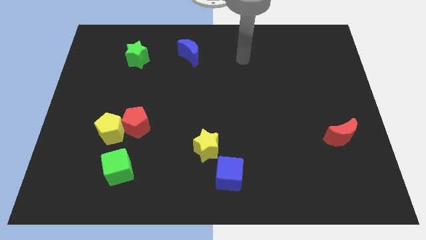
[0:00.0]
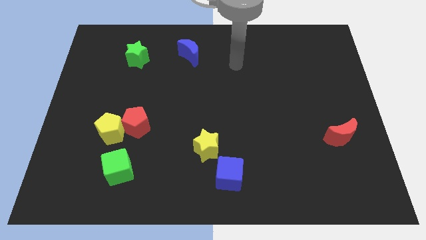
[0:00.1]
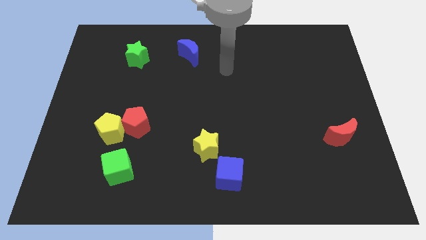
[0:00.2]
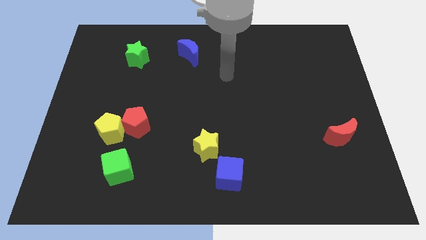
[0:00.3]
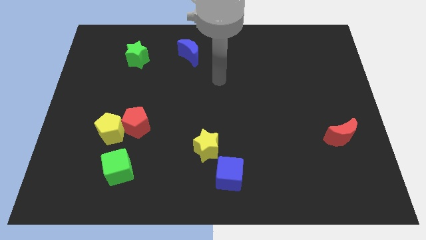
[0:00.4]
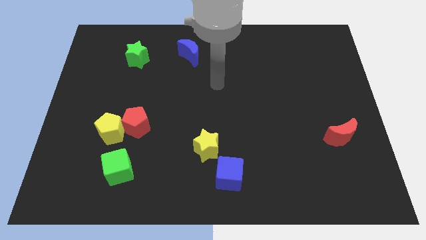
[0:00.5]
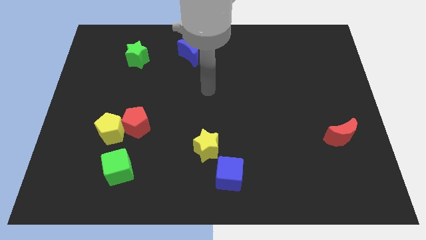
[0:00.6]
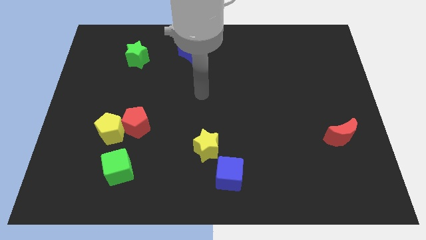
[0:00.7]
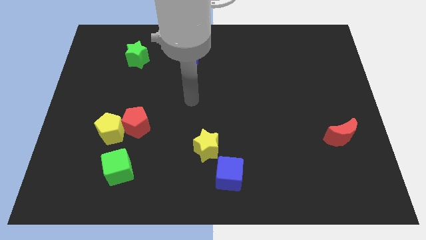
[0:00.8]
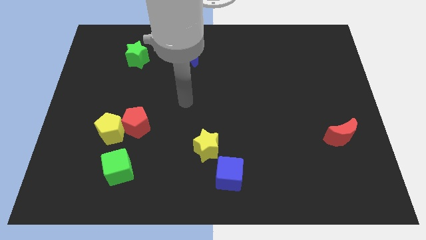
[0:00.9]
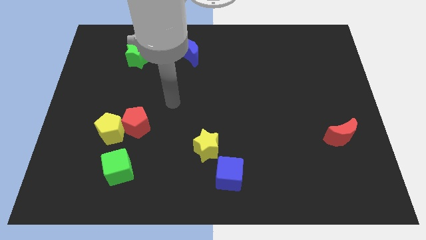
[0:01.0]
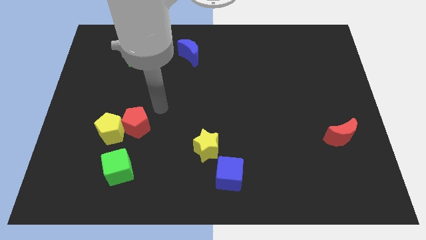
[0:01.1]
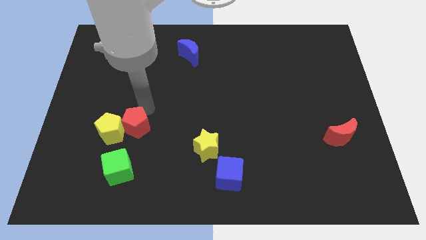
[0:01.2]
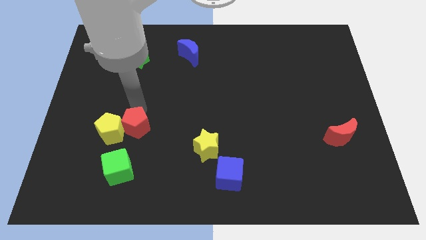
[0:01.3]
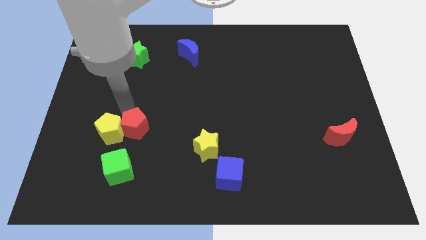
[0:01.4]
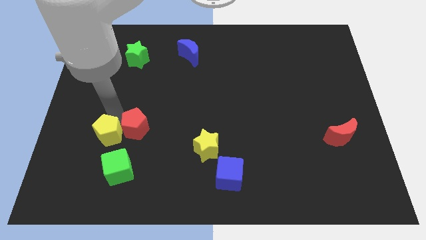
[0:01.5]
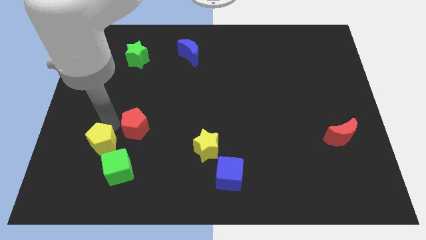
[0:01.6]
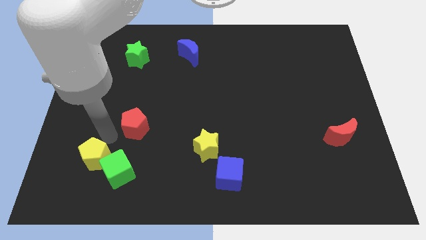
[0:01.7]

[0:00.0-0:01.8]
pull the red pentagon apart from the yellow pentagon

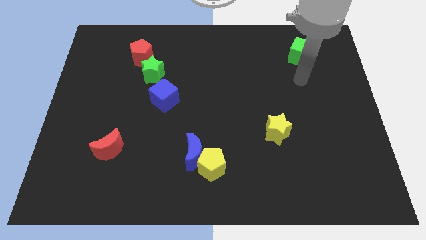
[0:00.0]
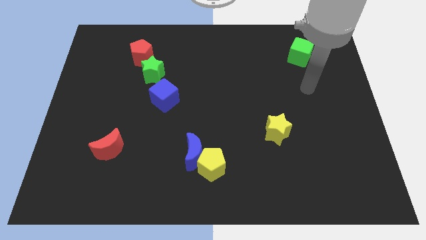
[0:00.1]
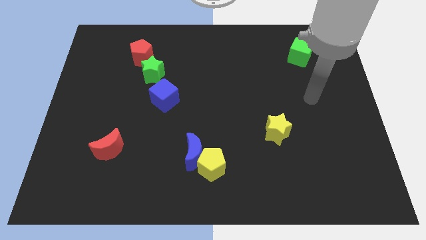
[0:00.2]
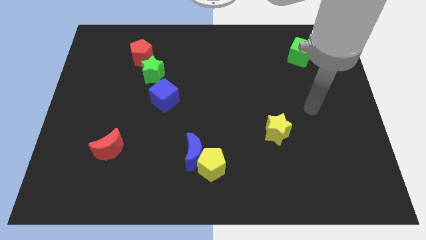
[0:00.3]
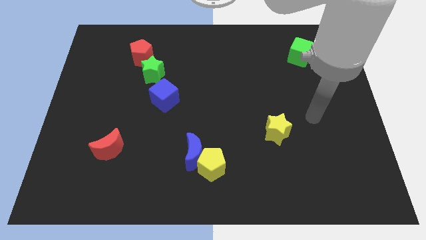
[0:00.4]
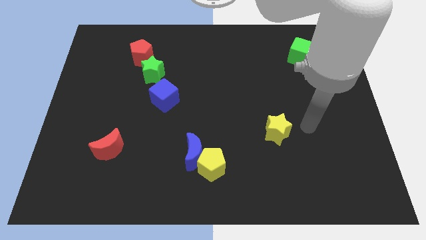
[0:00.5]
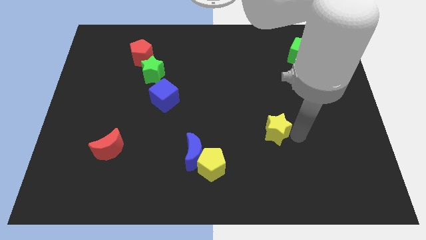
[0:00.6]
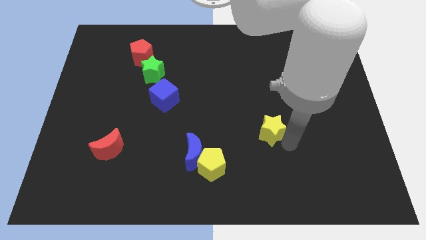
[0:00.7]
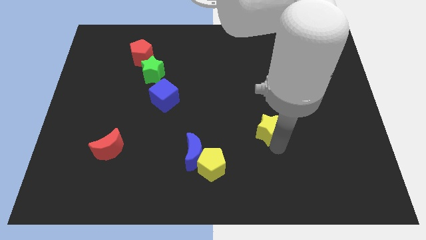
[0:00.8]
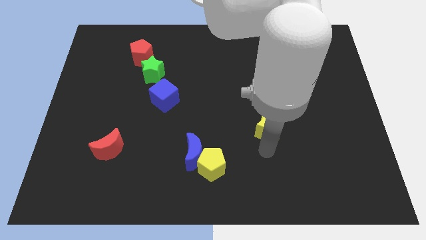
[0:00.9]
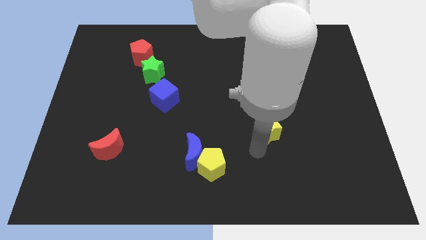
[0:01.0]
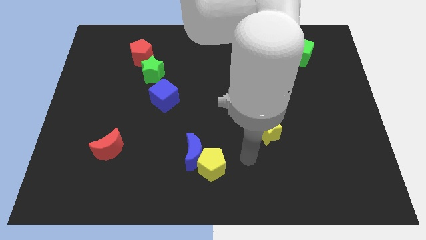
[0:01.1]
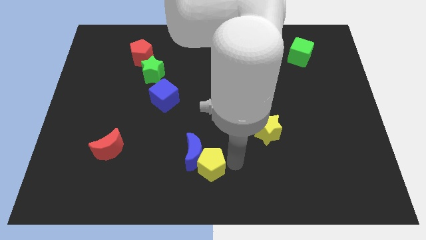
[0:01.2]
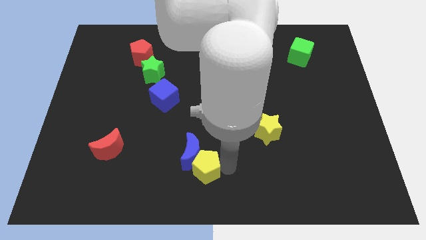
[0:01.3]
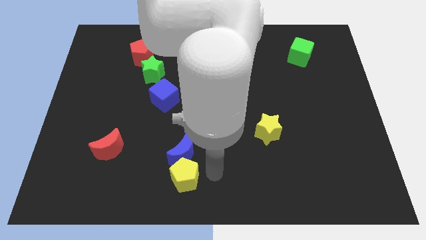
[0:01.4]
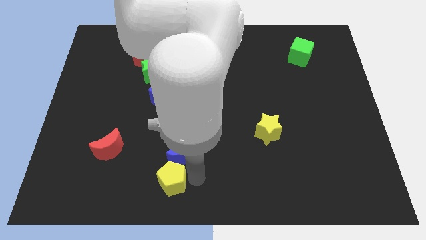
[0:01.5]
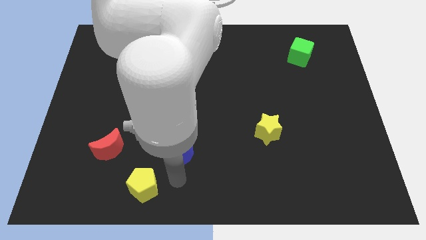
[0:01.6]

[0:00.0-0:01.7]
separate the blue moon from the yellow pentagon

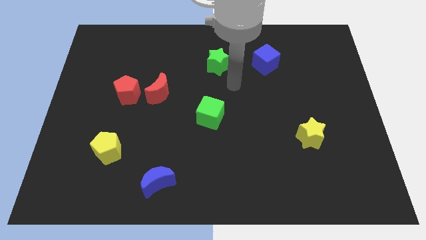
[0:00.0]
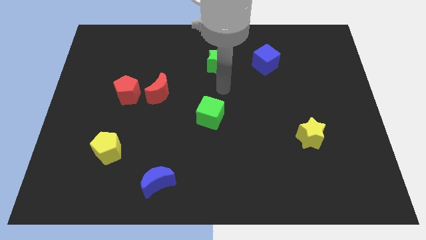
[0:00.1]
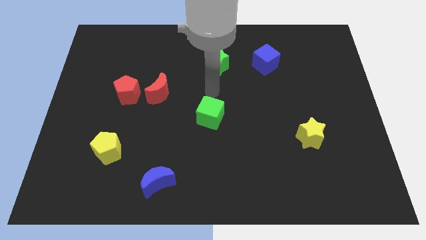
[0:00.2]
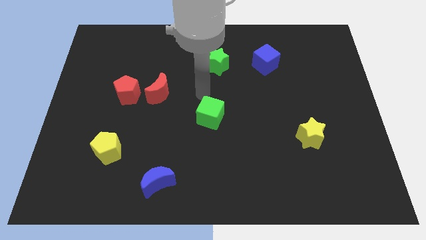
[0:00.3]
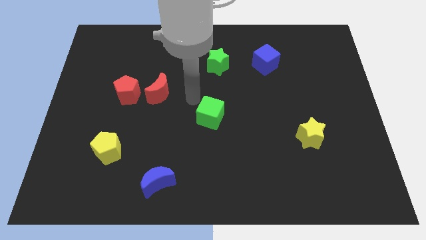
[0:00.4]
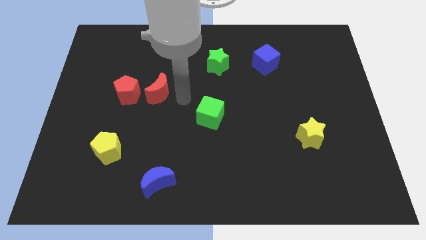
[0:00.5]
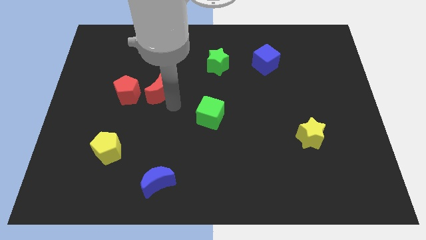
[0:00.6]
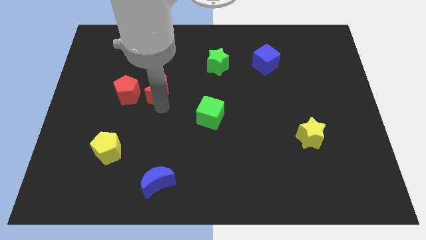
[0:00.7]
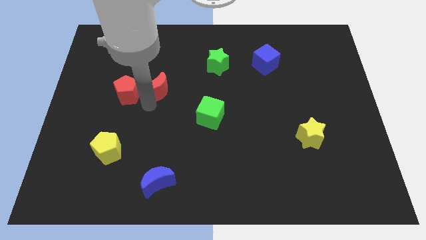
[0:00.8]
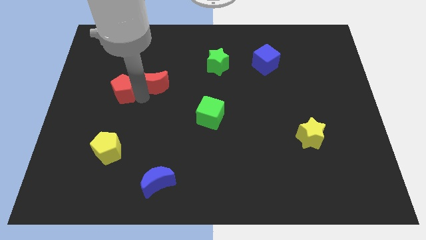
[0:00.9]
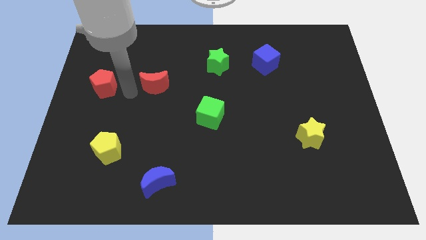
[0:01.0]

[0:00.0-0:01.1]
pull the red moon apart from the red pentagon

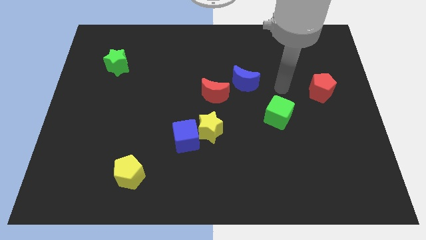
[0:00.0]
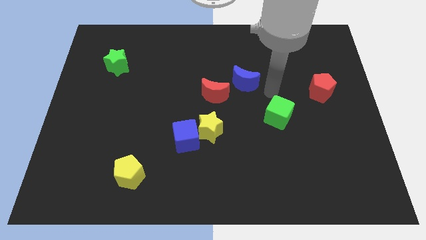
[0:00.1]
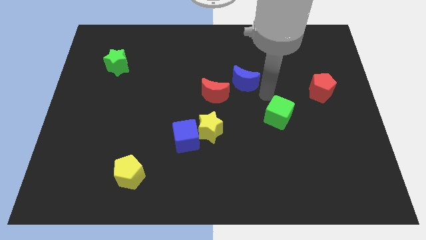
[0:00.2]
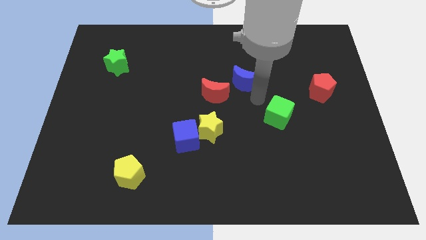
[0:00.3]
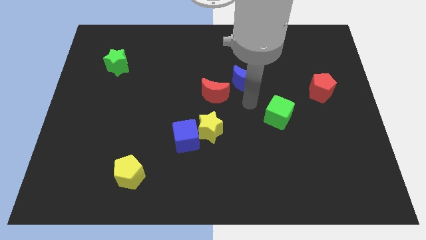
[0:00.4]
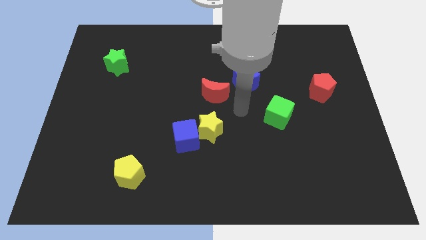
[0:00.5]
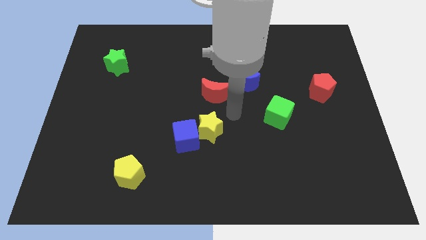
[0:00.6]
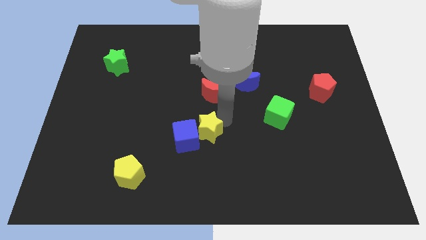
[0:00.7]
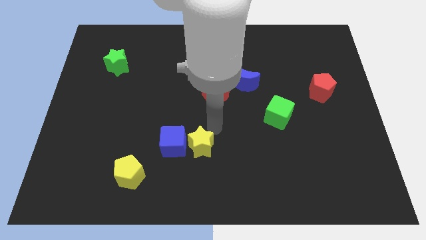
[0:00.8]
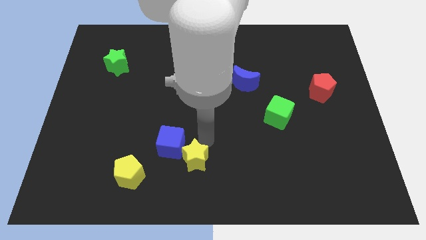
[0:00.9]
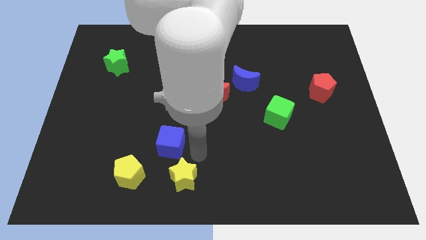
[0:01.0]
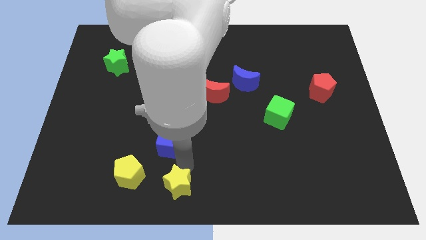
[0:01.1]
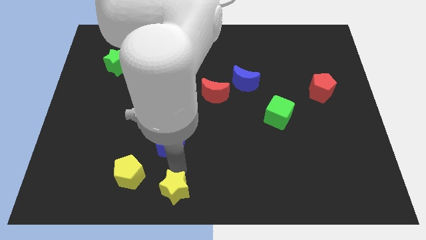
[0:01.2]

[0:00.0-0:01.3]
separate the blue cube from the yellow star

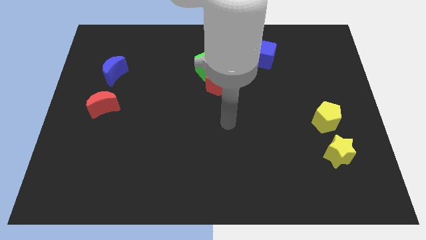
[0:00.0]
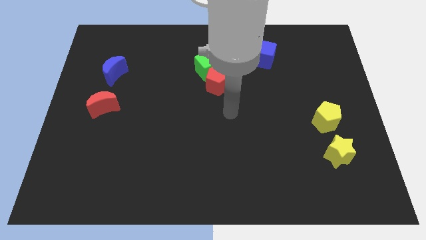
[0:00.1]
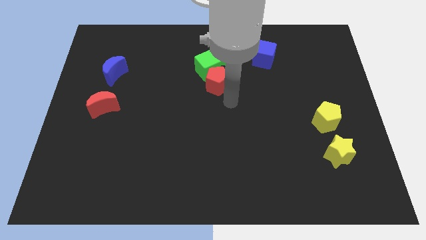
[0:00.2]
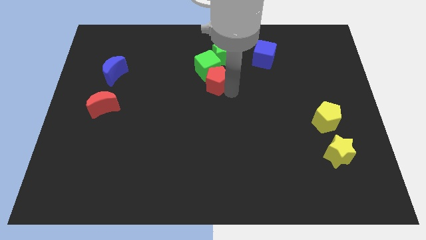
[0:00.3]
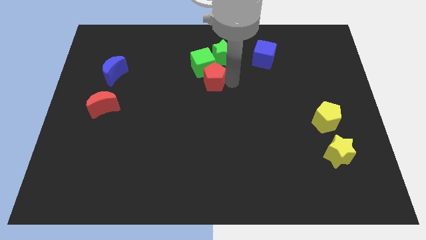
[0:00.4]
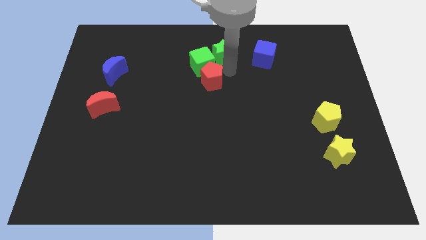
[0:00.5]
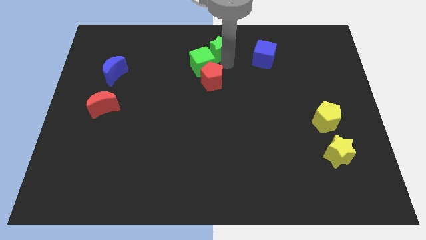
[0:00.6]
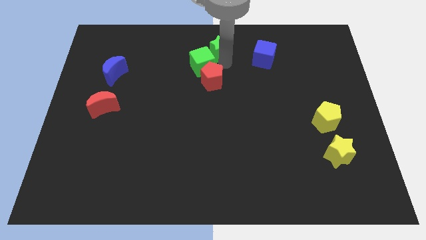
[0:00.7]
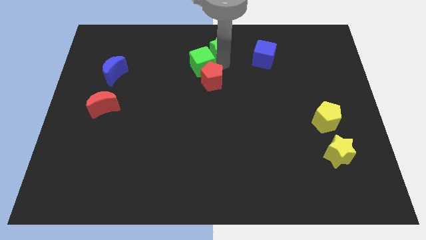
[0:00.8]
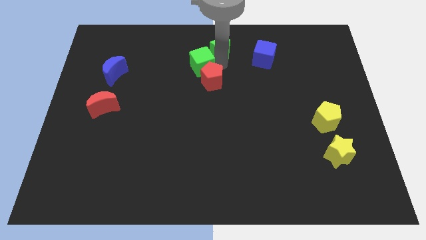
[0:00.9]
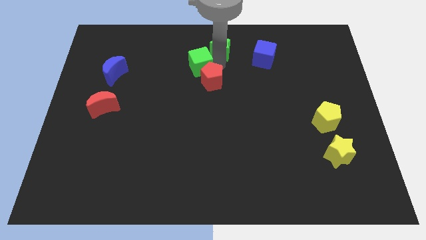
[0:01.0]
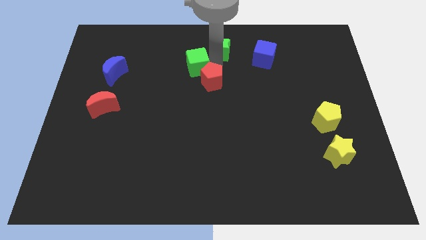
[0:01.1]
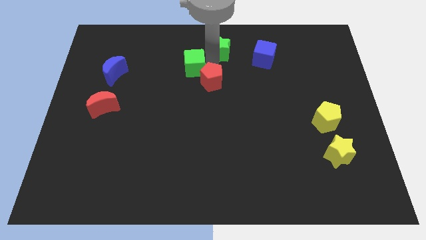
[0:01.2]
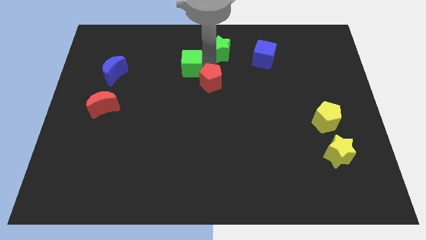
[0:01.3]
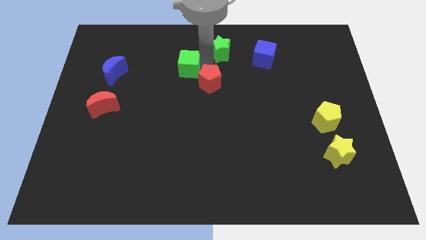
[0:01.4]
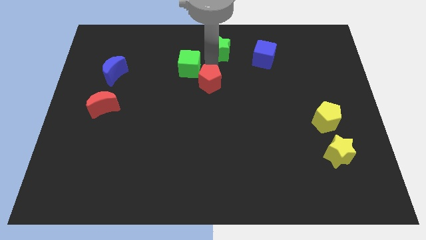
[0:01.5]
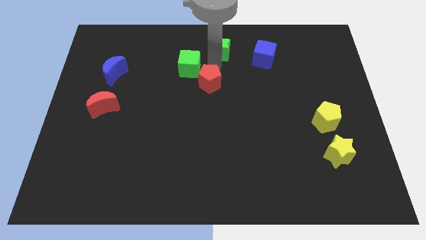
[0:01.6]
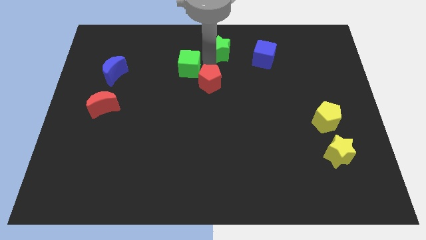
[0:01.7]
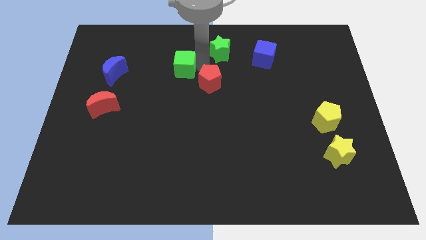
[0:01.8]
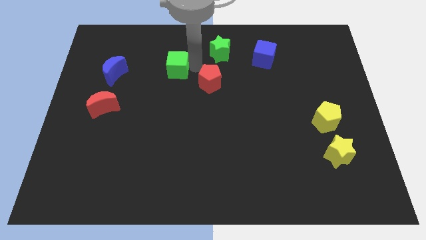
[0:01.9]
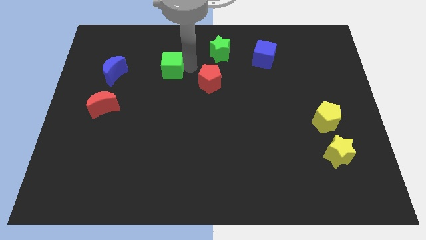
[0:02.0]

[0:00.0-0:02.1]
move the green cube away from the green star and red pentagon

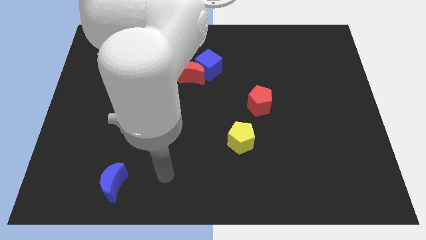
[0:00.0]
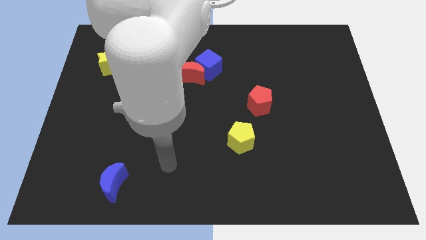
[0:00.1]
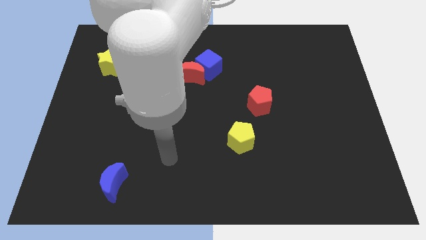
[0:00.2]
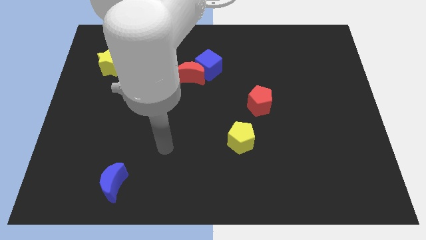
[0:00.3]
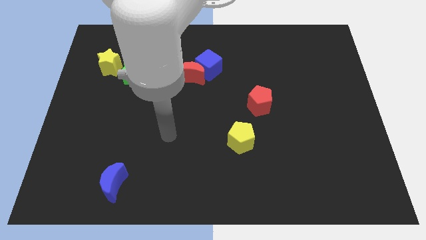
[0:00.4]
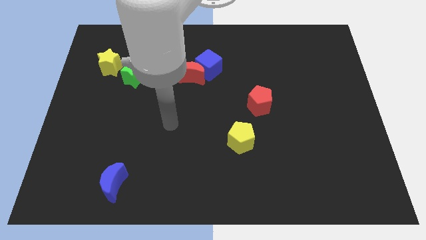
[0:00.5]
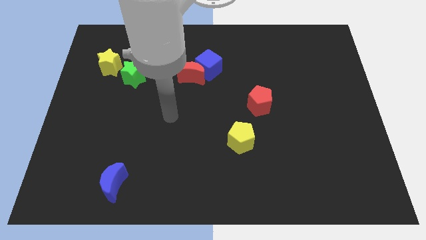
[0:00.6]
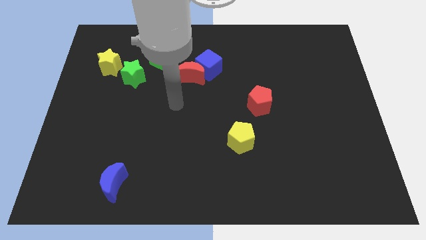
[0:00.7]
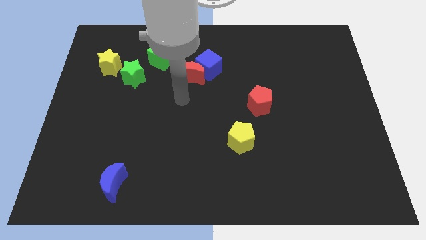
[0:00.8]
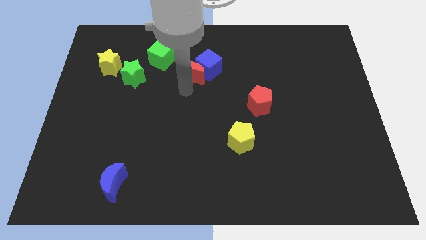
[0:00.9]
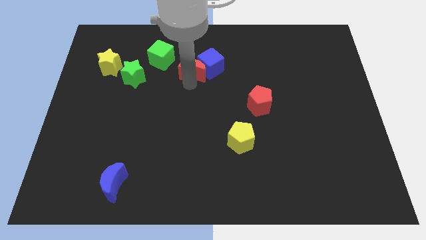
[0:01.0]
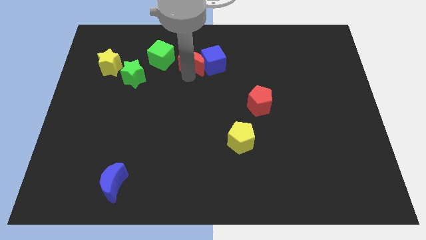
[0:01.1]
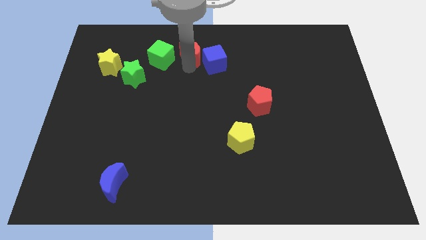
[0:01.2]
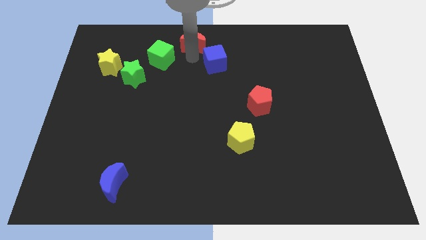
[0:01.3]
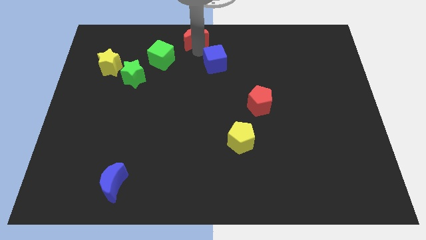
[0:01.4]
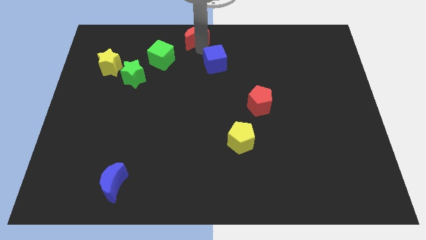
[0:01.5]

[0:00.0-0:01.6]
move the blue cube away from the red moon
